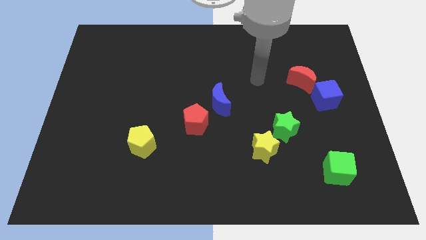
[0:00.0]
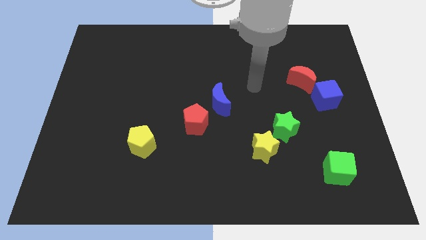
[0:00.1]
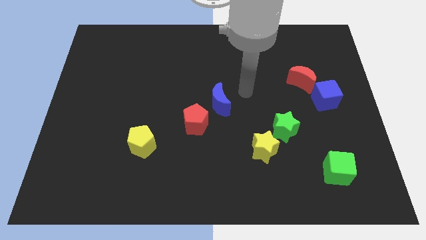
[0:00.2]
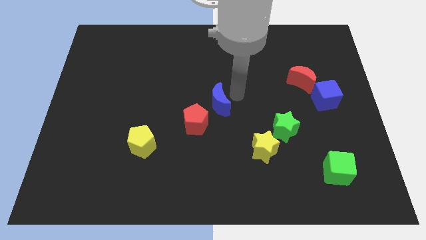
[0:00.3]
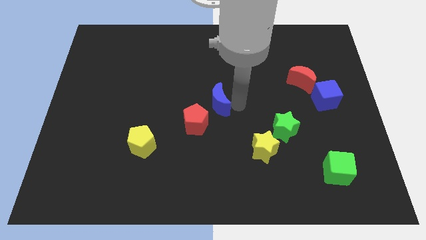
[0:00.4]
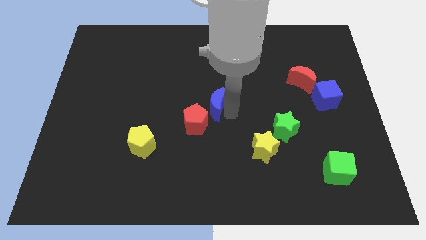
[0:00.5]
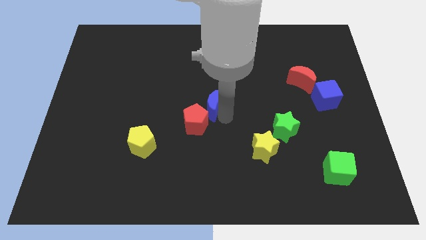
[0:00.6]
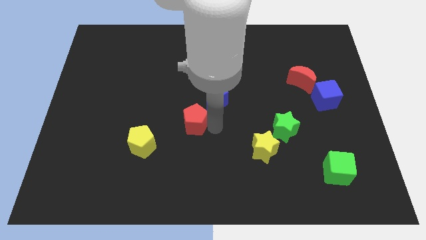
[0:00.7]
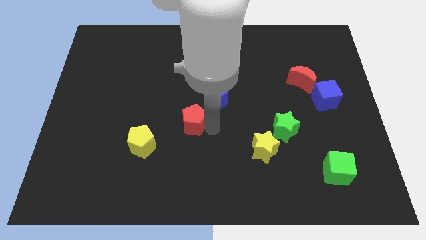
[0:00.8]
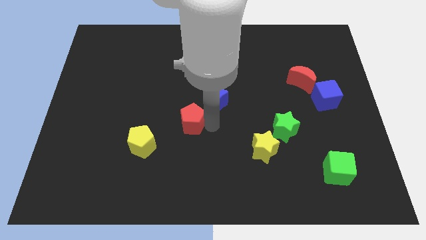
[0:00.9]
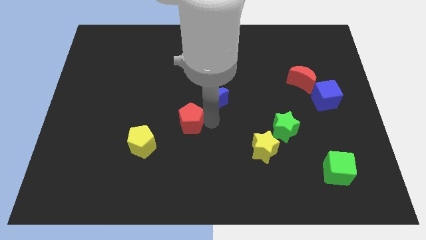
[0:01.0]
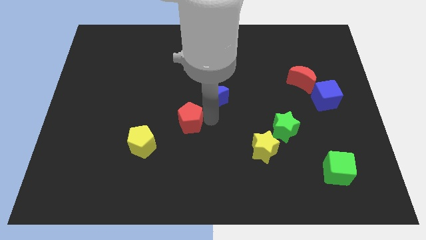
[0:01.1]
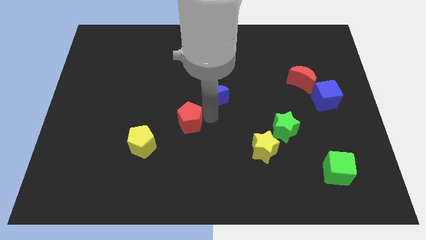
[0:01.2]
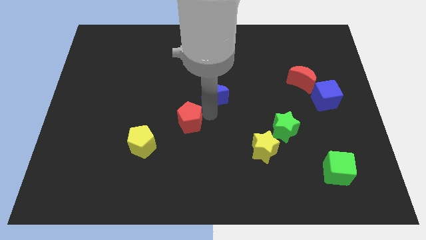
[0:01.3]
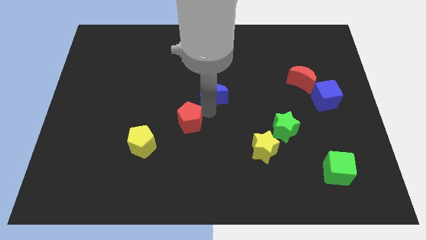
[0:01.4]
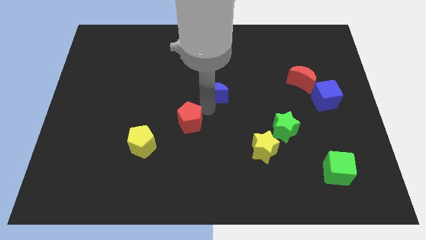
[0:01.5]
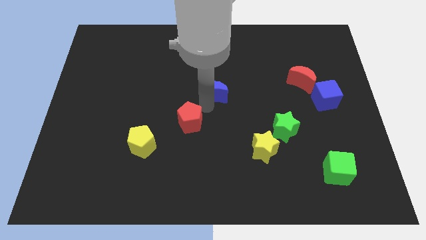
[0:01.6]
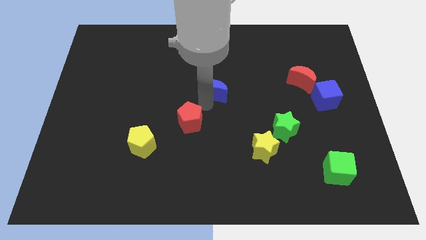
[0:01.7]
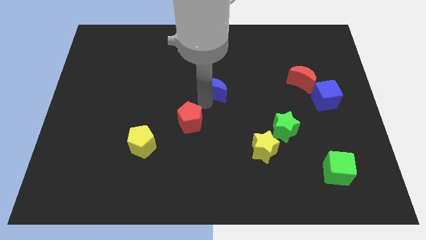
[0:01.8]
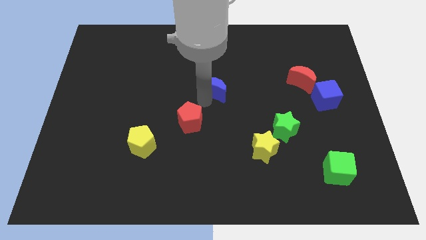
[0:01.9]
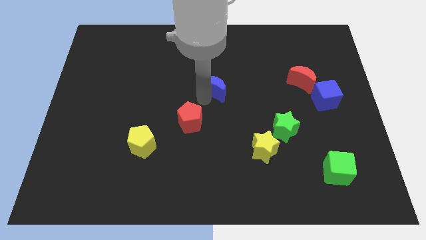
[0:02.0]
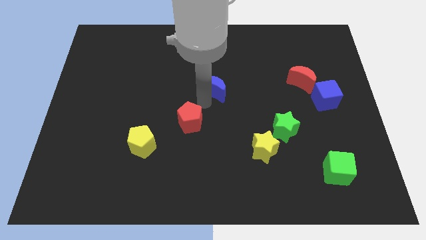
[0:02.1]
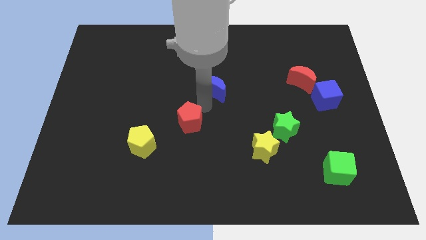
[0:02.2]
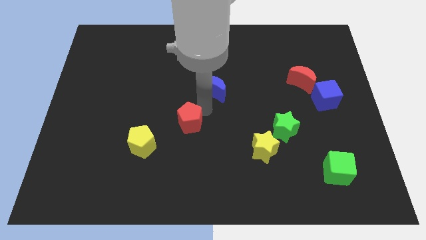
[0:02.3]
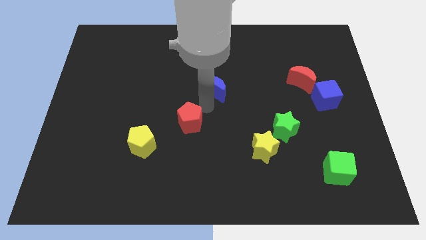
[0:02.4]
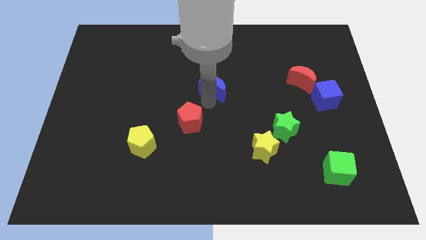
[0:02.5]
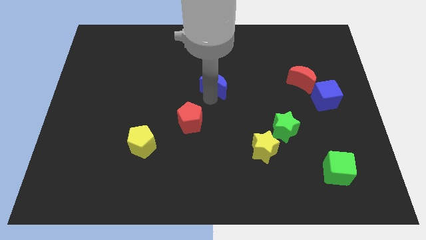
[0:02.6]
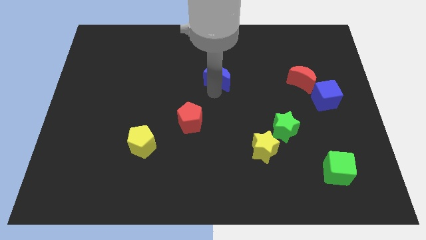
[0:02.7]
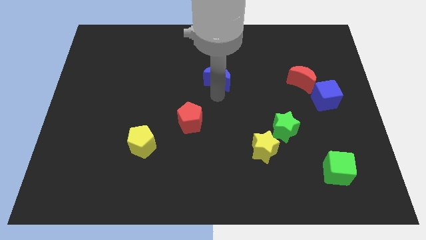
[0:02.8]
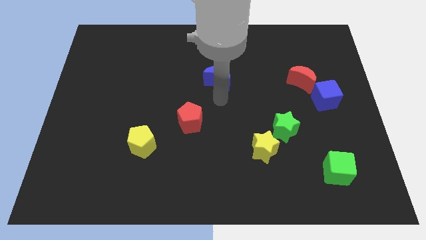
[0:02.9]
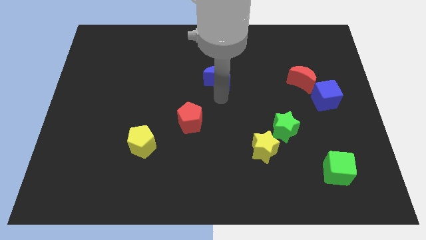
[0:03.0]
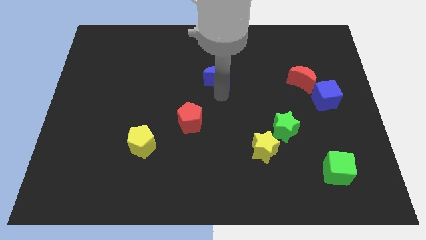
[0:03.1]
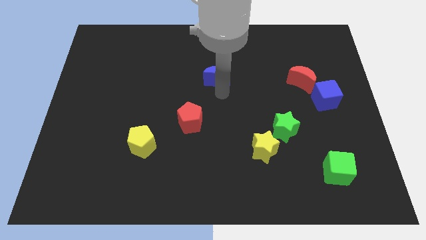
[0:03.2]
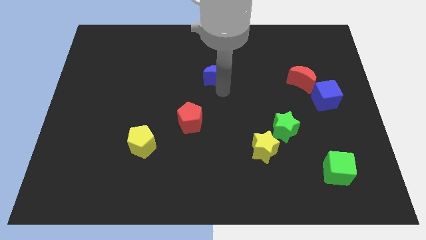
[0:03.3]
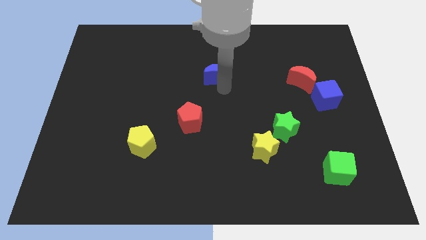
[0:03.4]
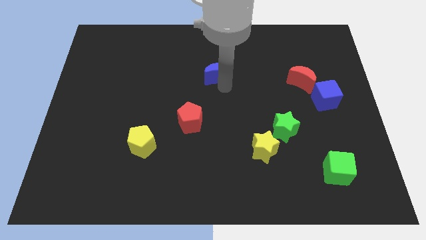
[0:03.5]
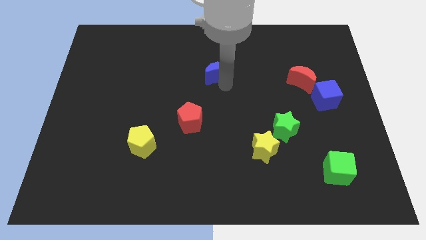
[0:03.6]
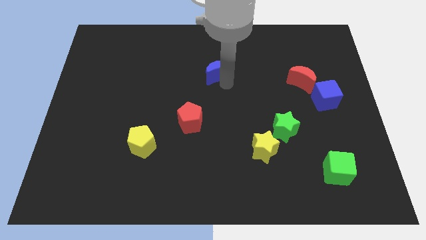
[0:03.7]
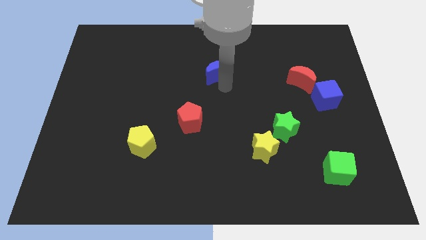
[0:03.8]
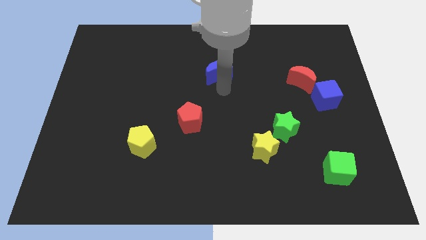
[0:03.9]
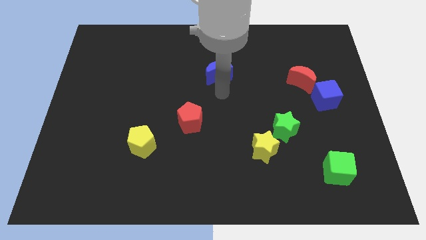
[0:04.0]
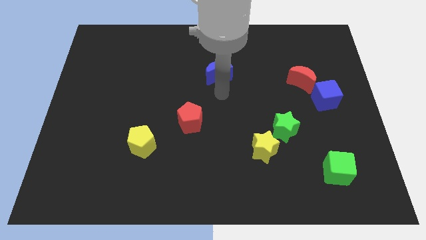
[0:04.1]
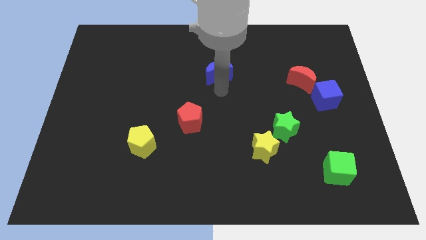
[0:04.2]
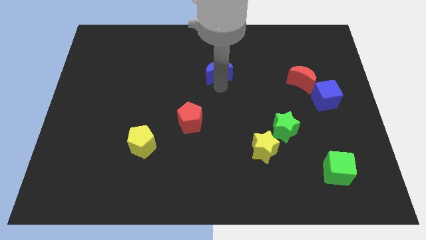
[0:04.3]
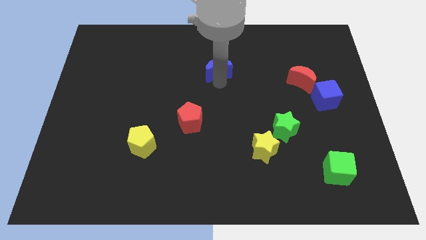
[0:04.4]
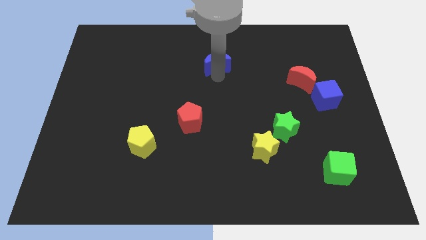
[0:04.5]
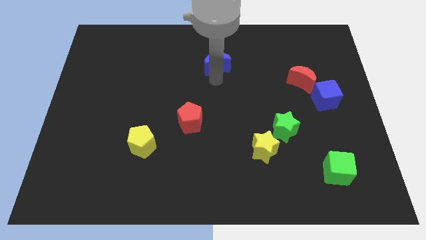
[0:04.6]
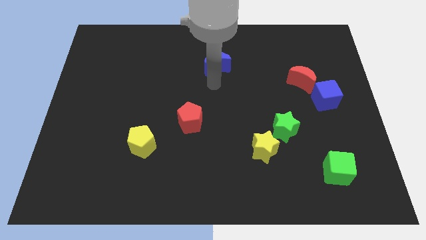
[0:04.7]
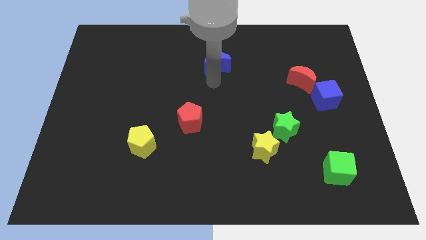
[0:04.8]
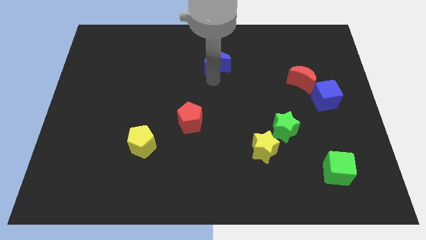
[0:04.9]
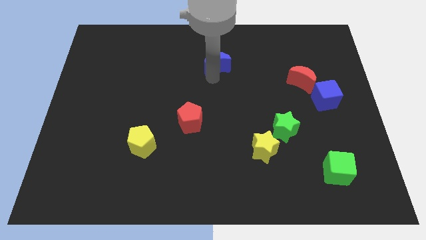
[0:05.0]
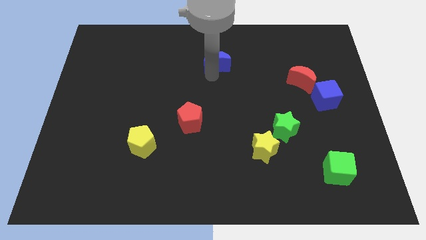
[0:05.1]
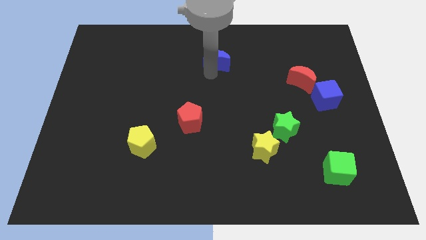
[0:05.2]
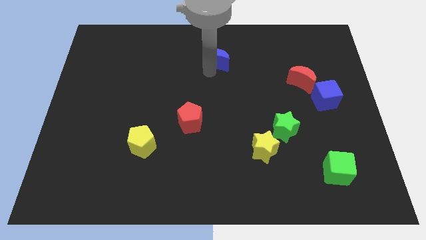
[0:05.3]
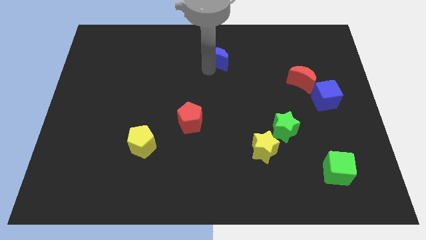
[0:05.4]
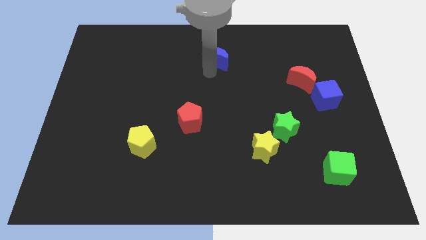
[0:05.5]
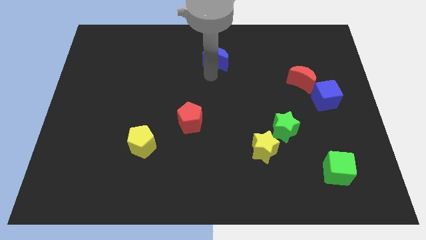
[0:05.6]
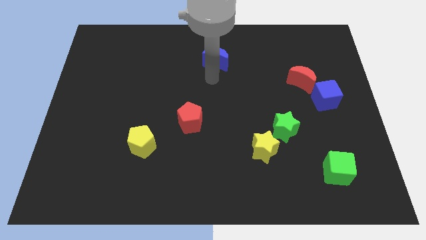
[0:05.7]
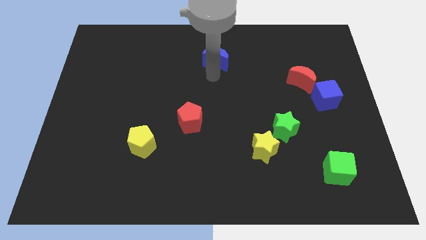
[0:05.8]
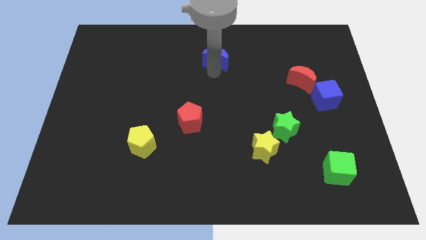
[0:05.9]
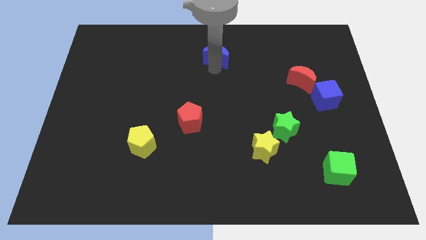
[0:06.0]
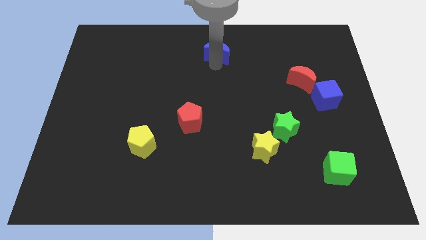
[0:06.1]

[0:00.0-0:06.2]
slide the blue moon to the top side
